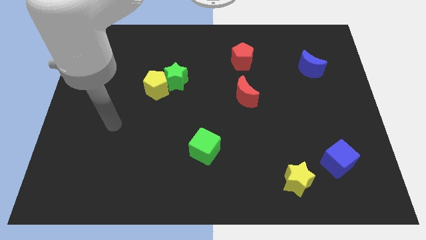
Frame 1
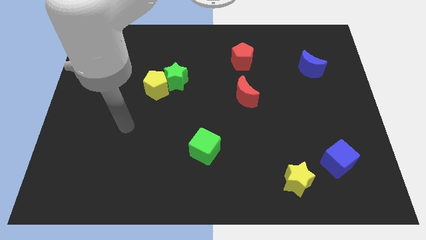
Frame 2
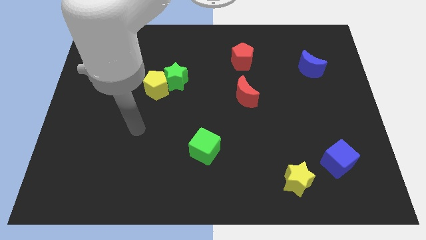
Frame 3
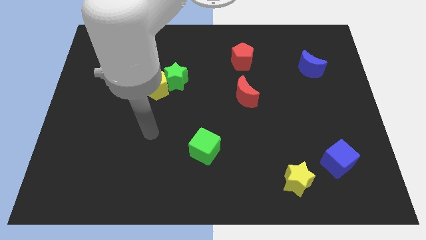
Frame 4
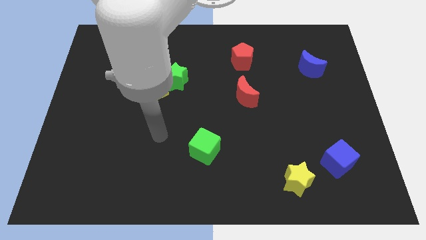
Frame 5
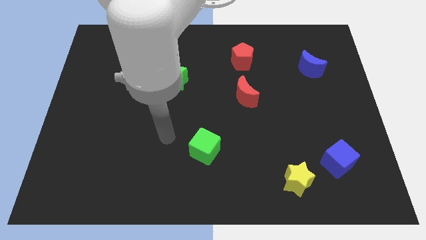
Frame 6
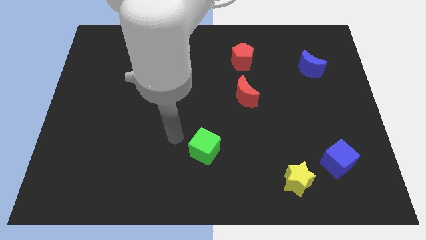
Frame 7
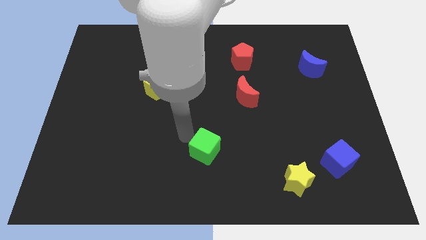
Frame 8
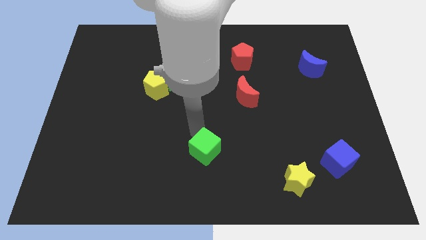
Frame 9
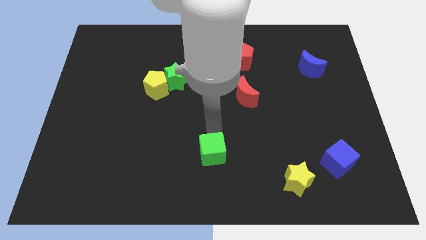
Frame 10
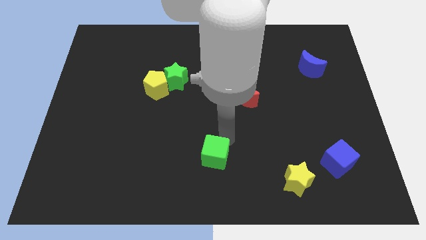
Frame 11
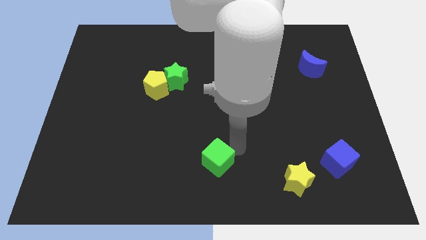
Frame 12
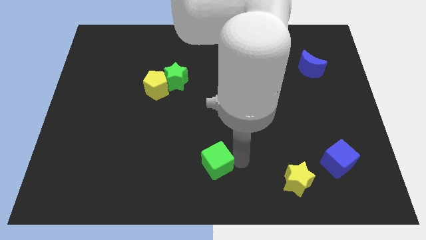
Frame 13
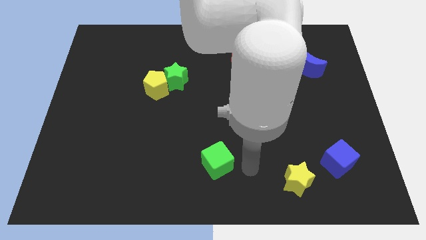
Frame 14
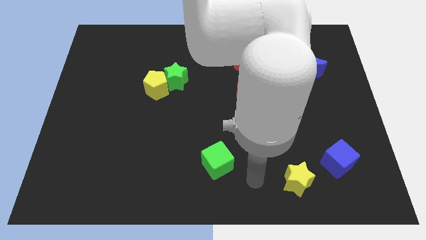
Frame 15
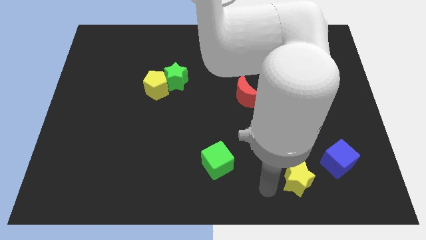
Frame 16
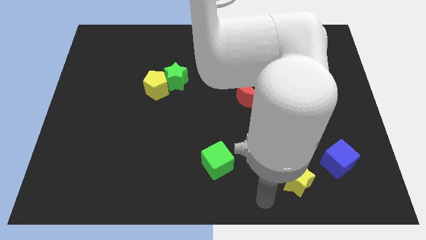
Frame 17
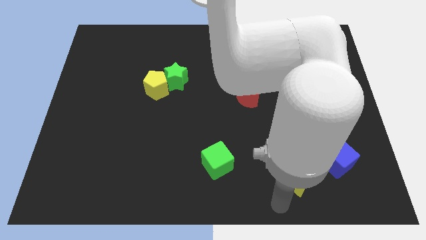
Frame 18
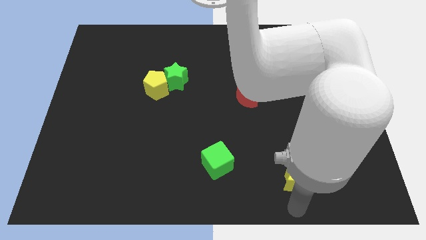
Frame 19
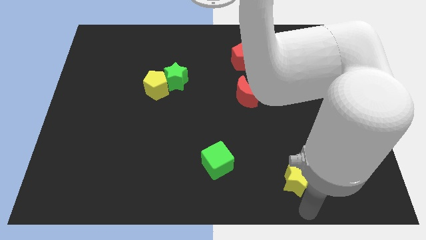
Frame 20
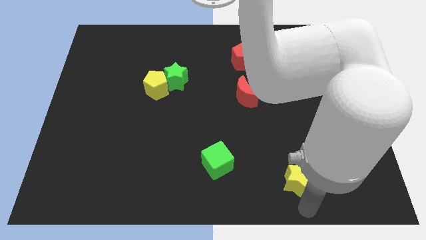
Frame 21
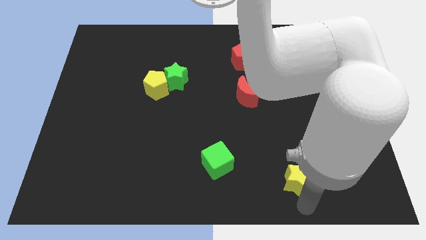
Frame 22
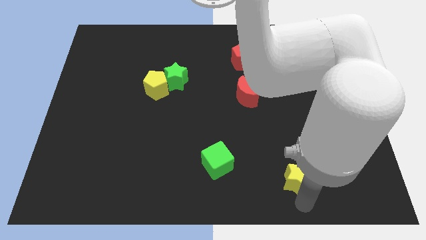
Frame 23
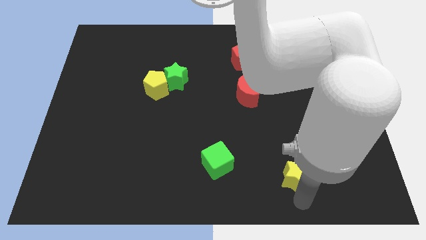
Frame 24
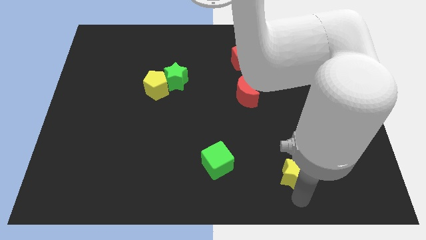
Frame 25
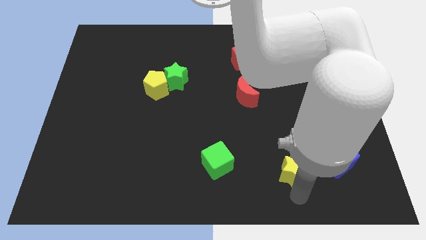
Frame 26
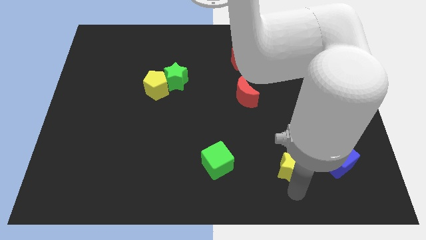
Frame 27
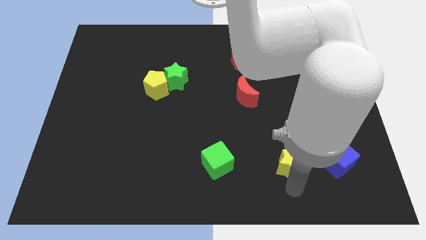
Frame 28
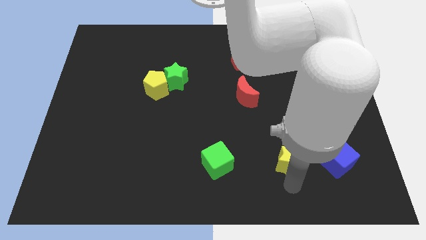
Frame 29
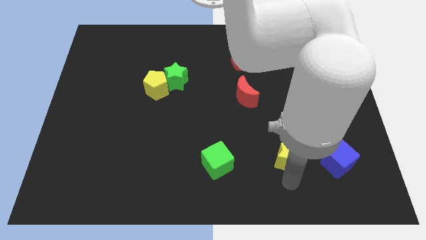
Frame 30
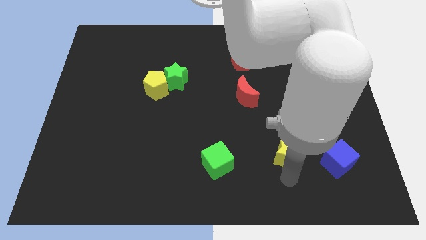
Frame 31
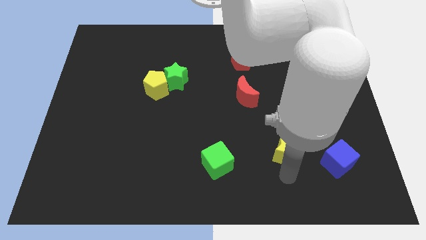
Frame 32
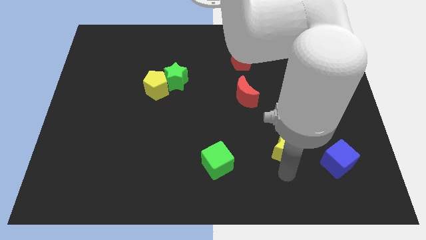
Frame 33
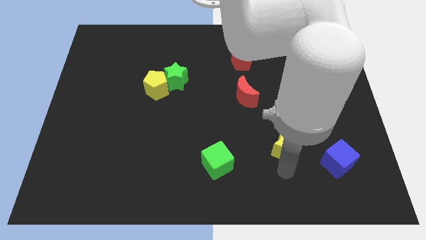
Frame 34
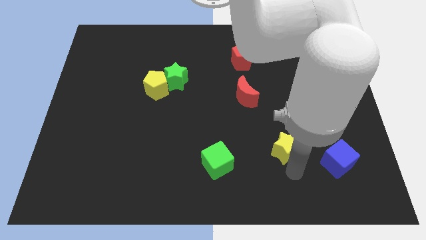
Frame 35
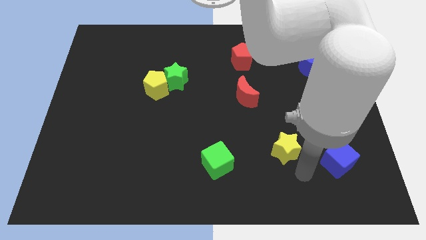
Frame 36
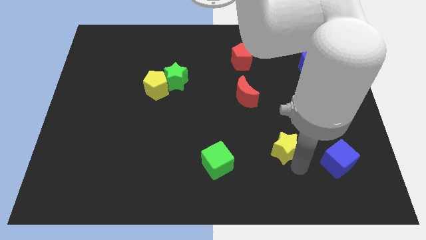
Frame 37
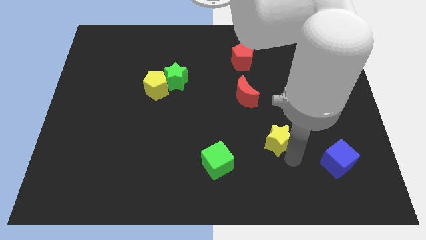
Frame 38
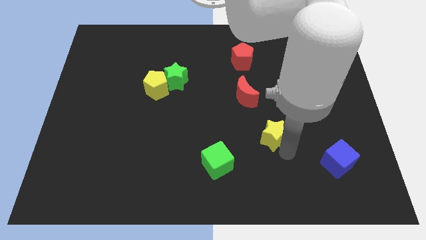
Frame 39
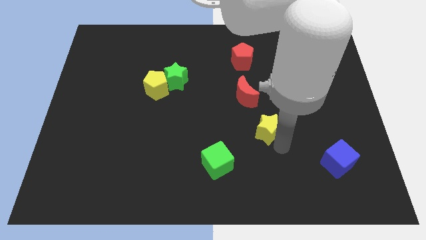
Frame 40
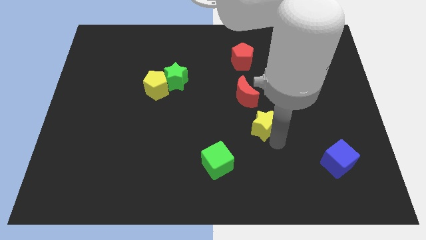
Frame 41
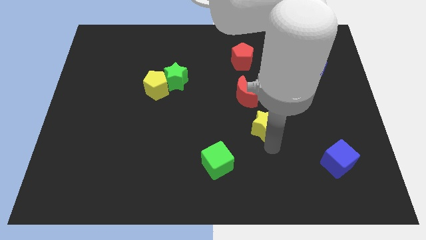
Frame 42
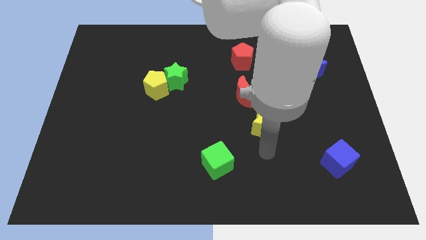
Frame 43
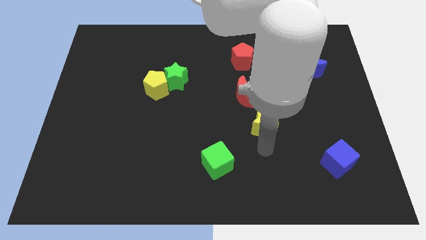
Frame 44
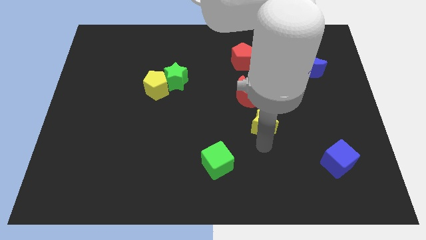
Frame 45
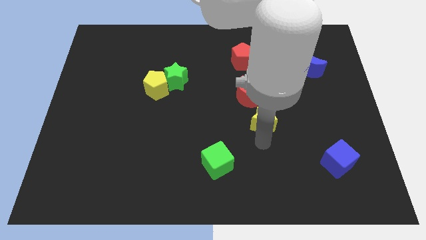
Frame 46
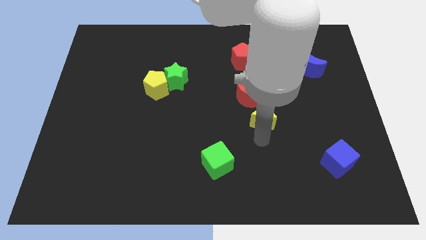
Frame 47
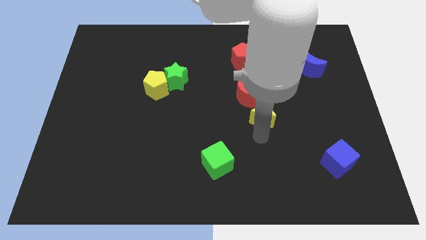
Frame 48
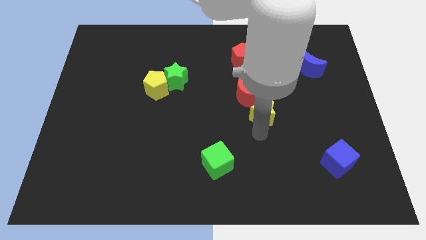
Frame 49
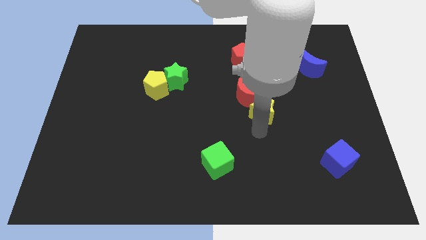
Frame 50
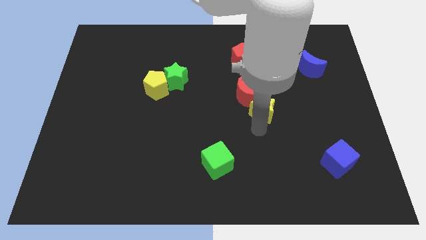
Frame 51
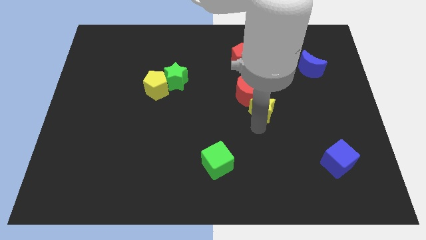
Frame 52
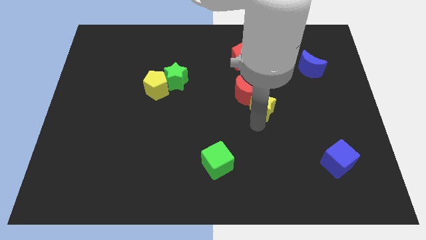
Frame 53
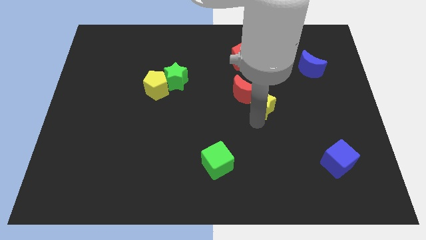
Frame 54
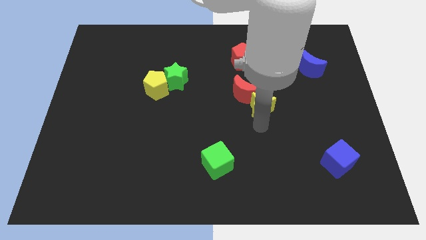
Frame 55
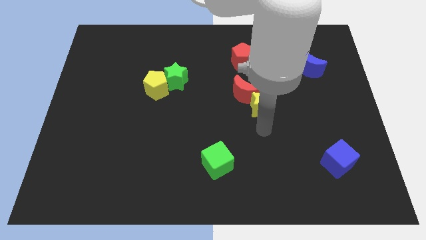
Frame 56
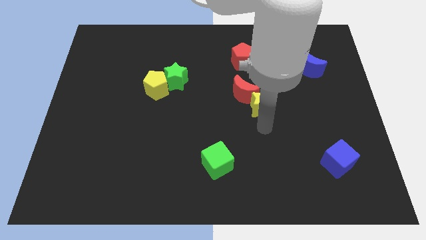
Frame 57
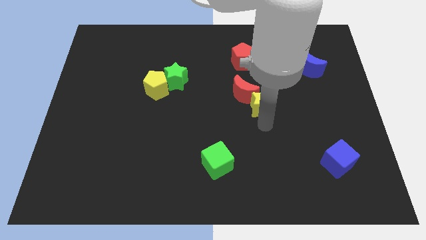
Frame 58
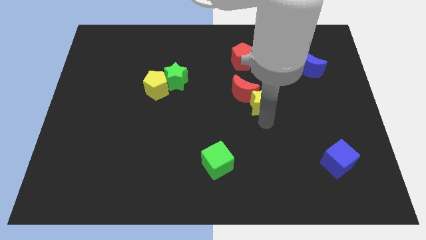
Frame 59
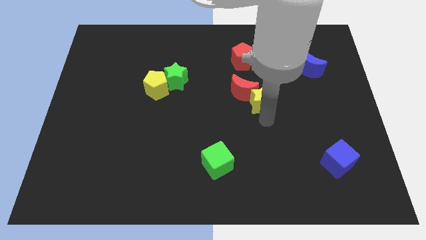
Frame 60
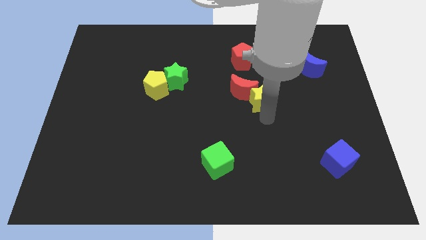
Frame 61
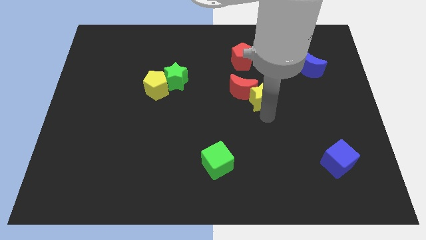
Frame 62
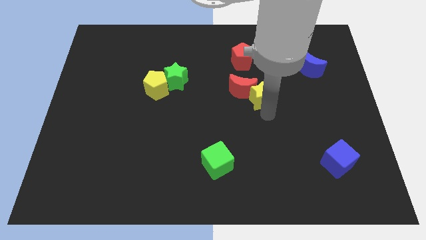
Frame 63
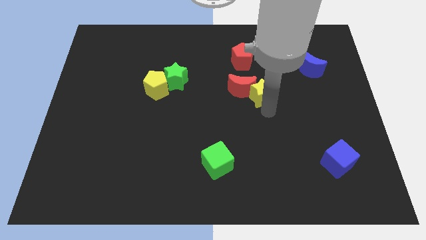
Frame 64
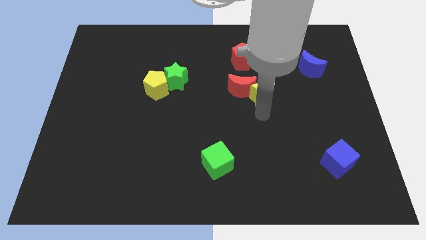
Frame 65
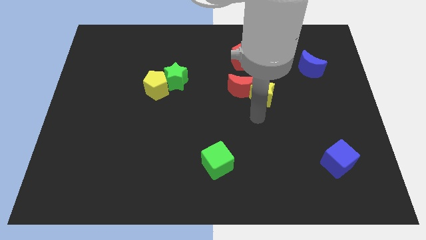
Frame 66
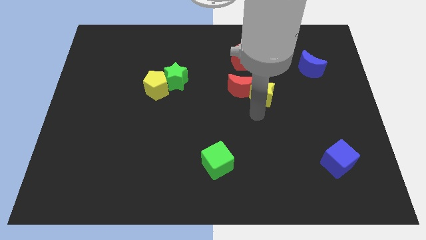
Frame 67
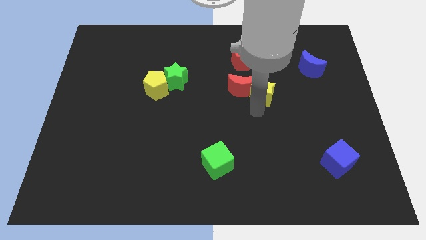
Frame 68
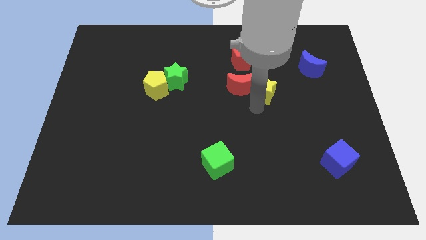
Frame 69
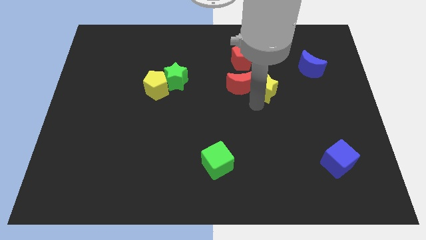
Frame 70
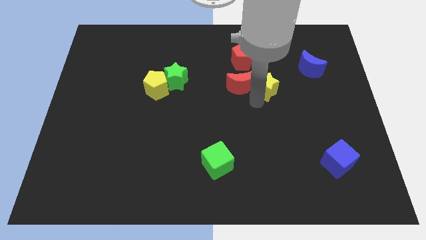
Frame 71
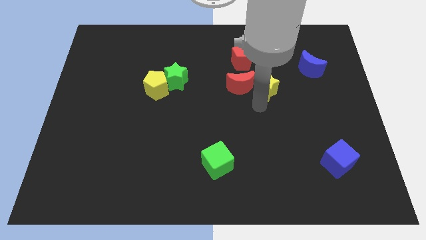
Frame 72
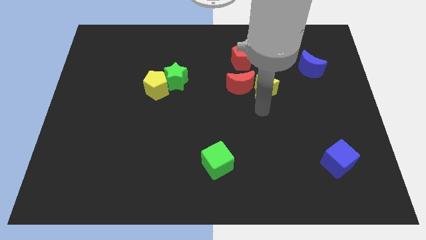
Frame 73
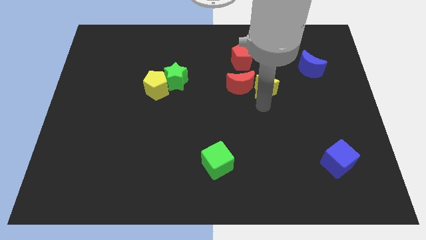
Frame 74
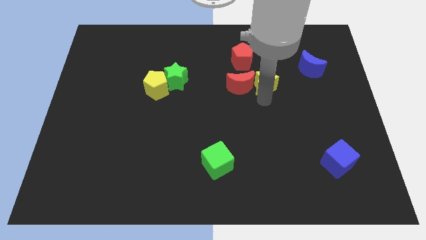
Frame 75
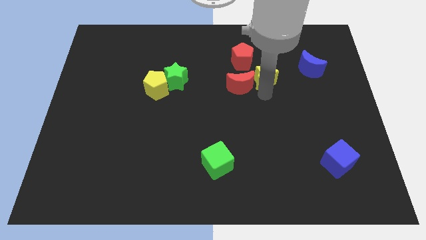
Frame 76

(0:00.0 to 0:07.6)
put the yellow star left of the blue moon

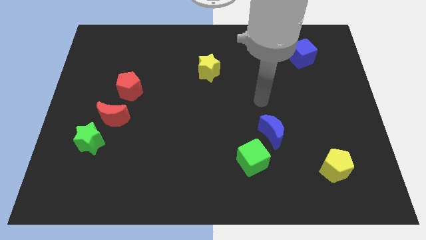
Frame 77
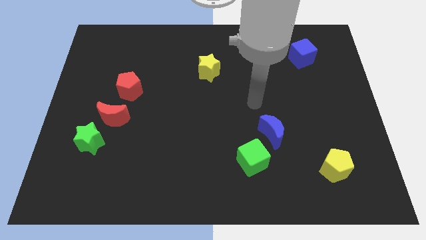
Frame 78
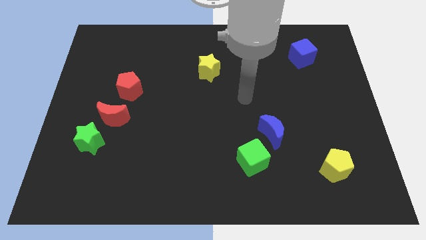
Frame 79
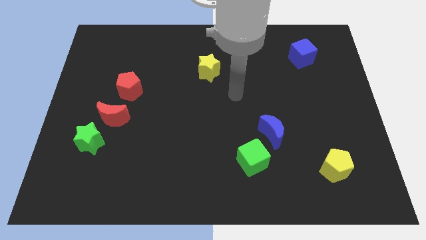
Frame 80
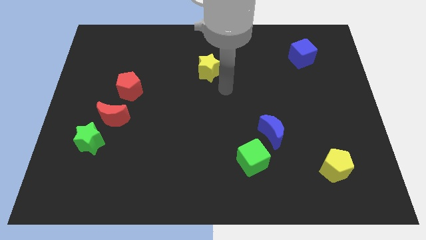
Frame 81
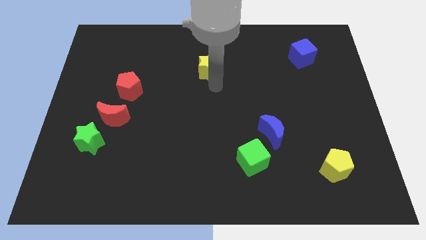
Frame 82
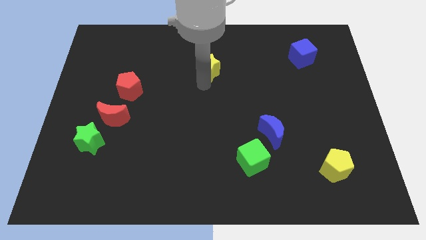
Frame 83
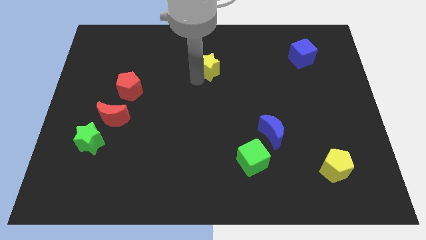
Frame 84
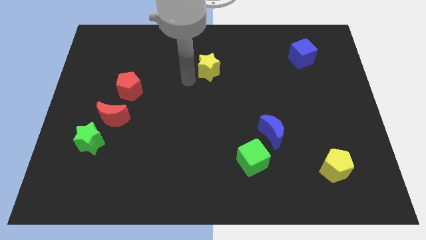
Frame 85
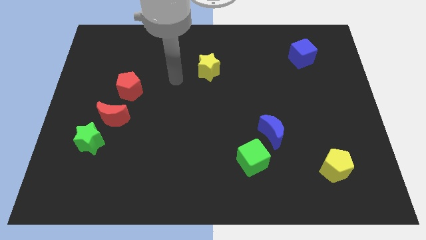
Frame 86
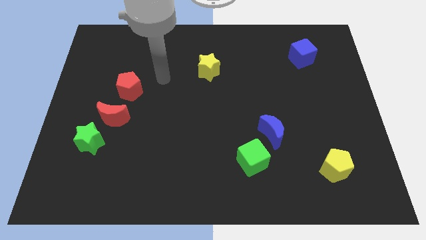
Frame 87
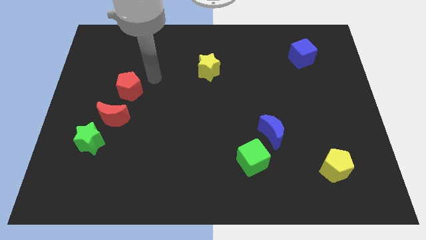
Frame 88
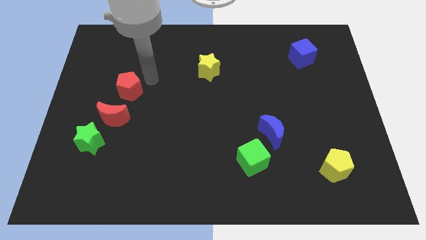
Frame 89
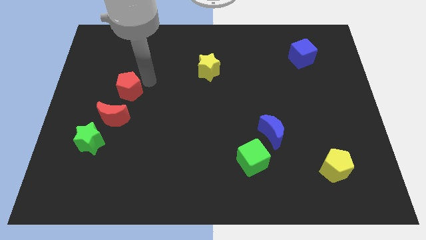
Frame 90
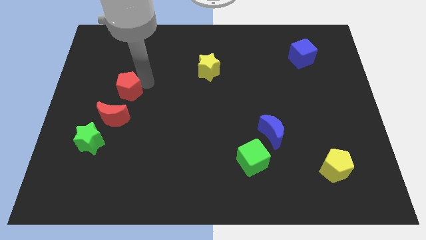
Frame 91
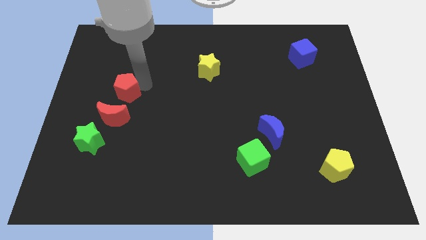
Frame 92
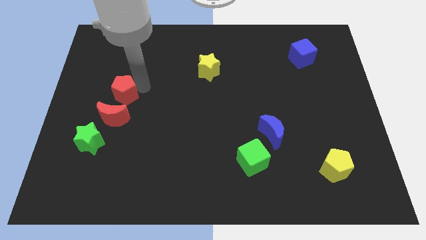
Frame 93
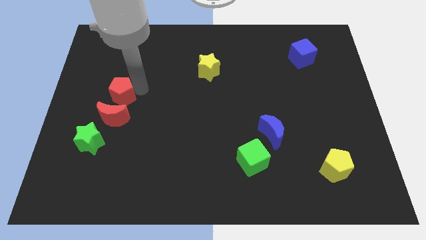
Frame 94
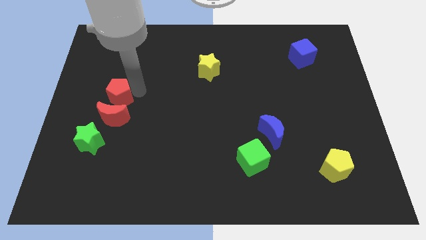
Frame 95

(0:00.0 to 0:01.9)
push the red pentagon above the green star
